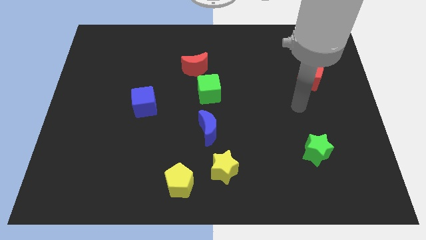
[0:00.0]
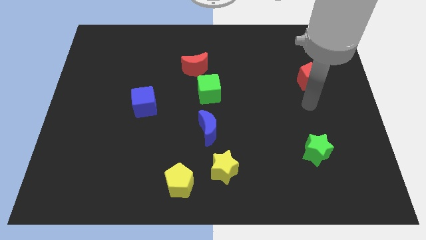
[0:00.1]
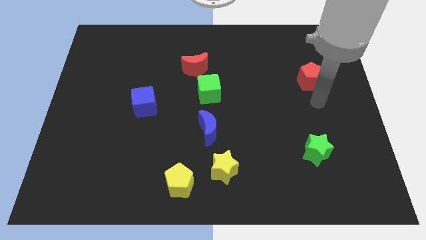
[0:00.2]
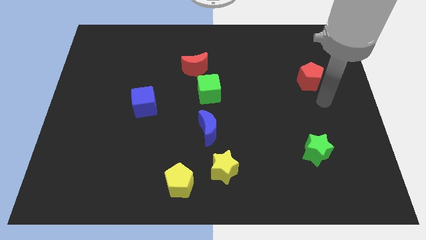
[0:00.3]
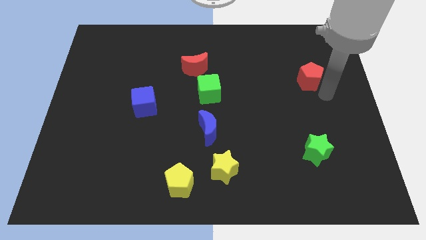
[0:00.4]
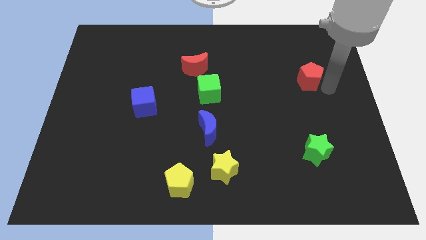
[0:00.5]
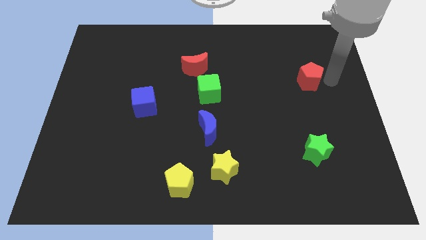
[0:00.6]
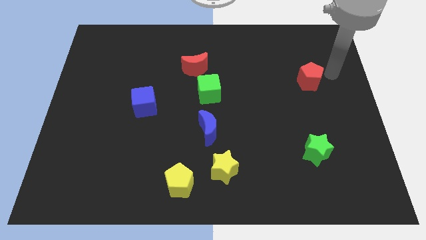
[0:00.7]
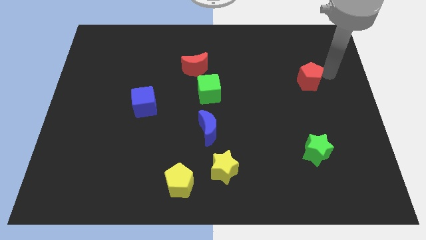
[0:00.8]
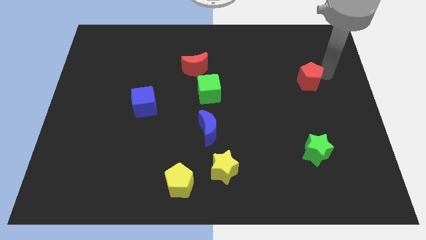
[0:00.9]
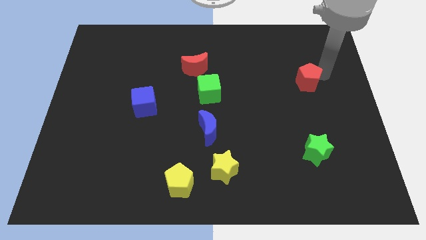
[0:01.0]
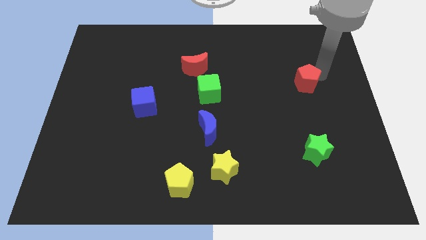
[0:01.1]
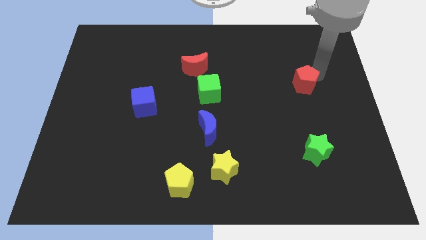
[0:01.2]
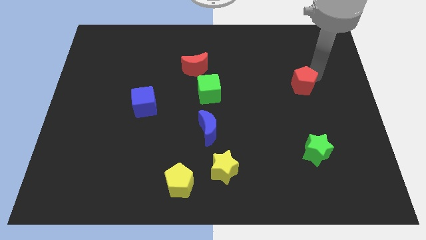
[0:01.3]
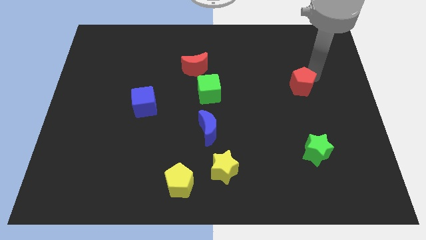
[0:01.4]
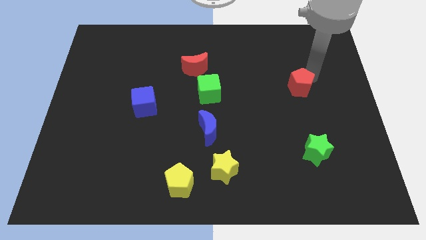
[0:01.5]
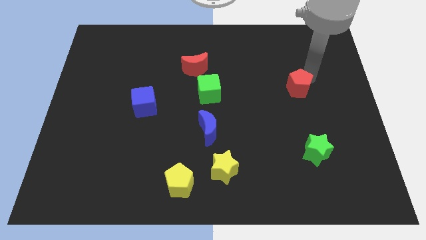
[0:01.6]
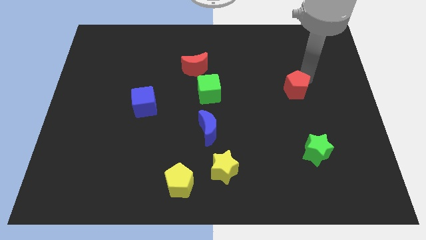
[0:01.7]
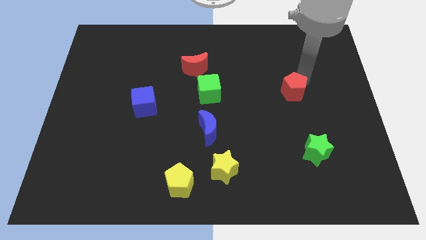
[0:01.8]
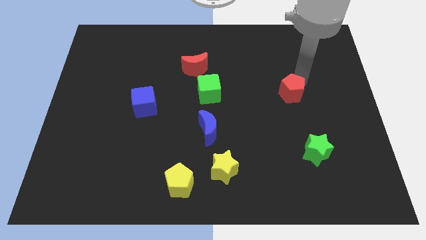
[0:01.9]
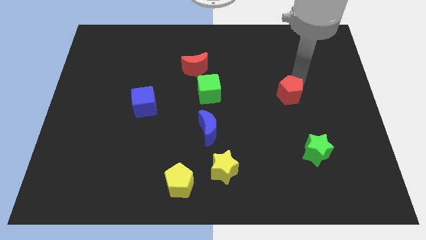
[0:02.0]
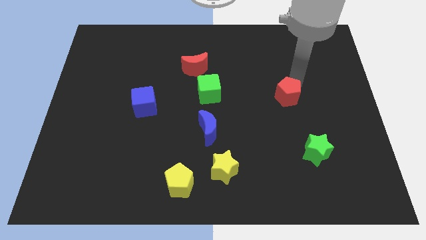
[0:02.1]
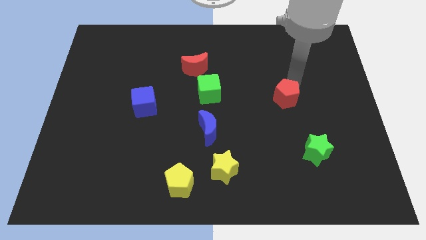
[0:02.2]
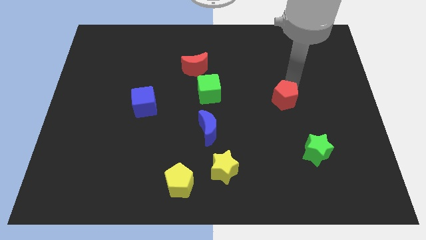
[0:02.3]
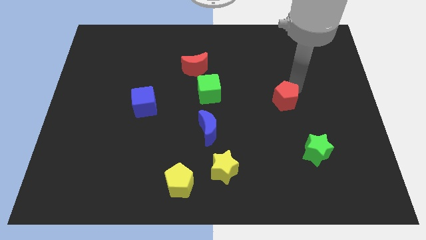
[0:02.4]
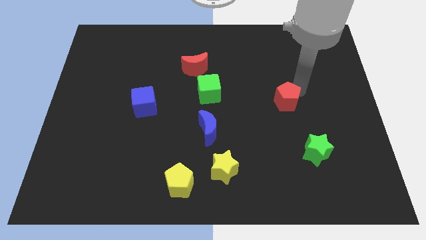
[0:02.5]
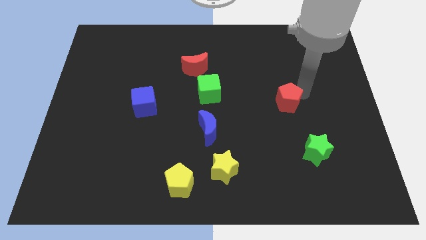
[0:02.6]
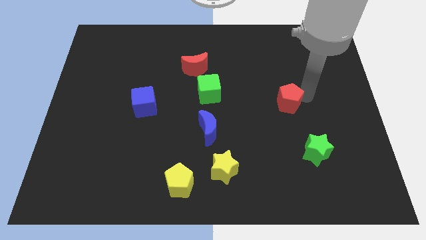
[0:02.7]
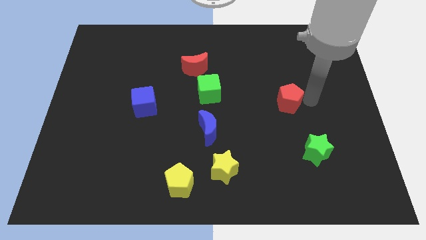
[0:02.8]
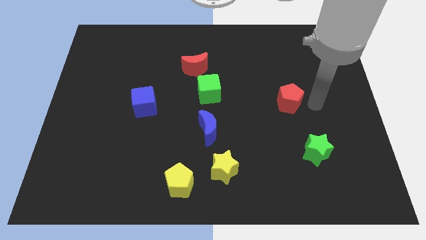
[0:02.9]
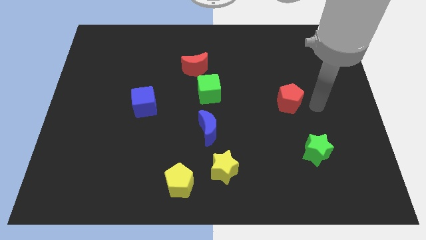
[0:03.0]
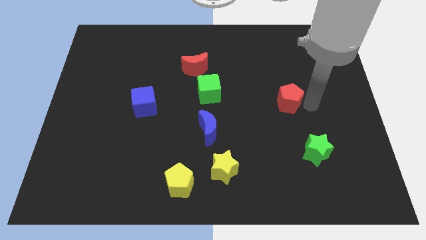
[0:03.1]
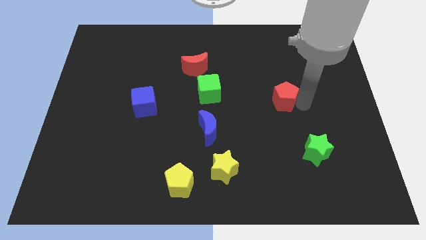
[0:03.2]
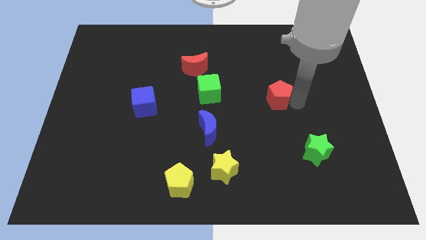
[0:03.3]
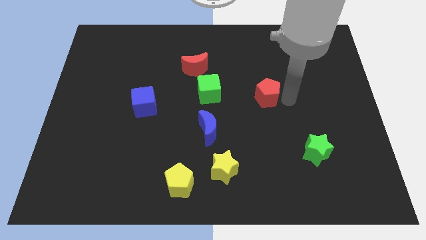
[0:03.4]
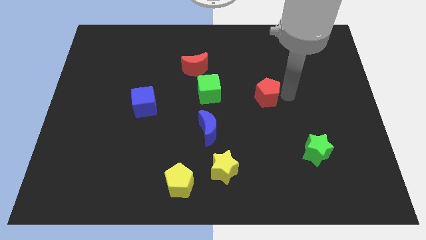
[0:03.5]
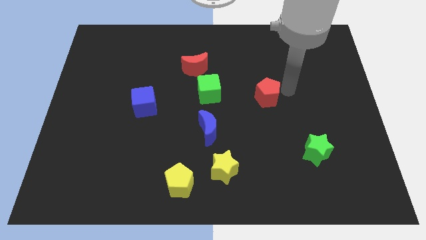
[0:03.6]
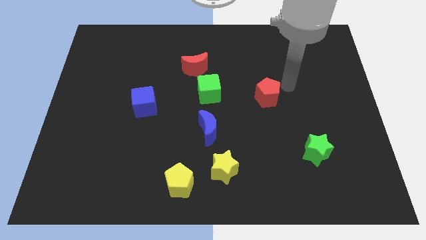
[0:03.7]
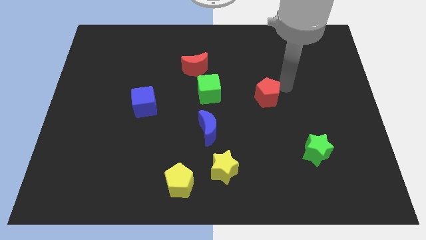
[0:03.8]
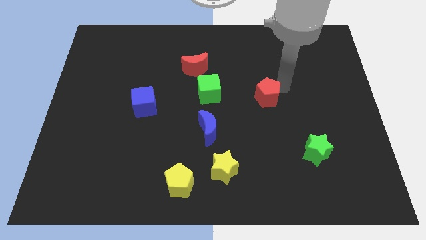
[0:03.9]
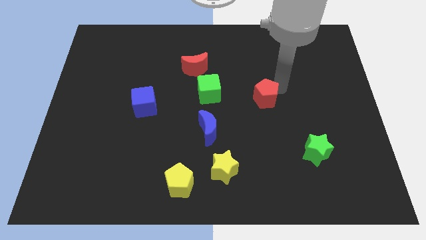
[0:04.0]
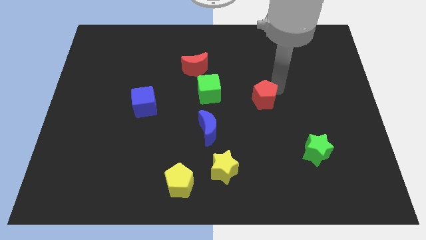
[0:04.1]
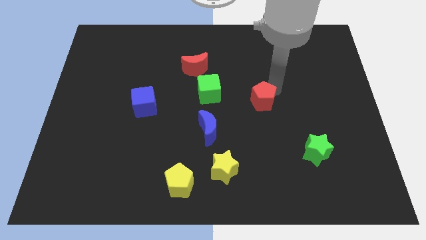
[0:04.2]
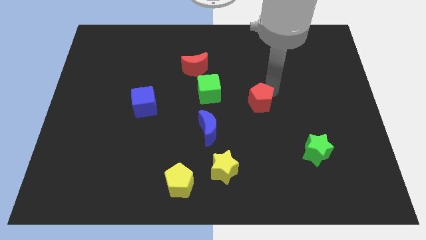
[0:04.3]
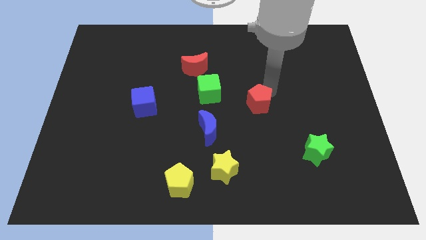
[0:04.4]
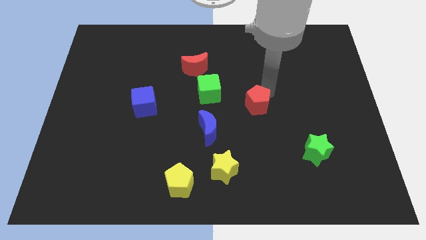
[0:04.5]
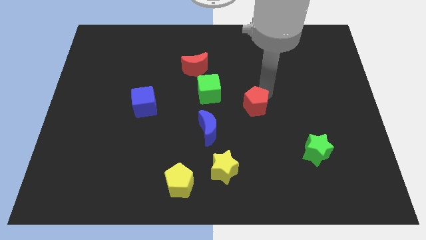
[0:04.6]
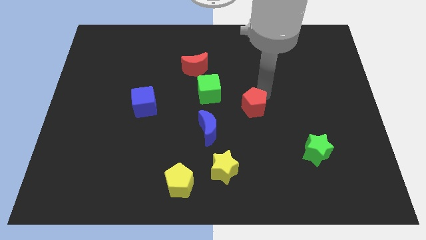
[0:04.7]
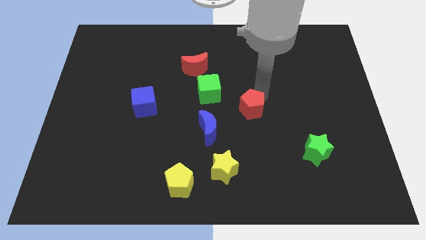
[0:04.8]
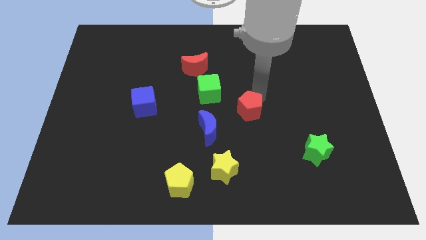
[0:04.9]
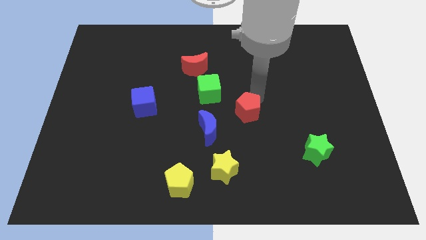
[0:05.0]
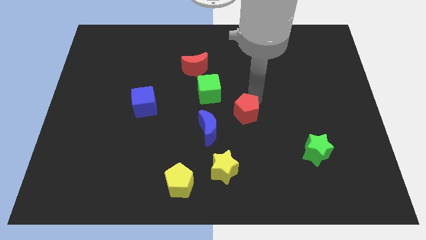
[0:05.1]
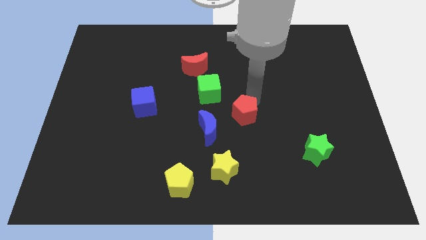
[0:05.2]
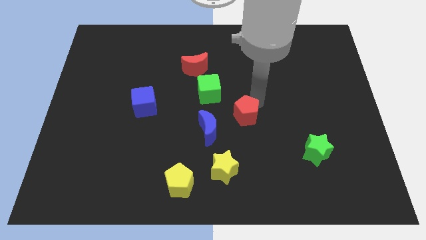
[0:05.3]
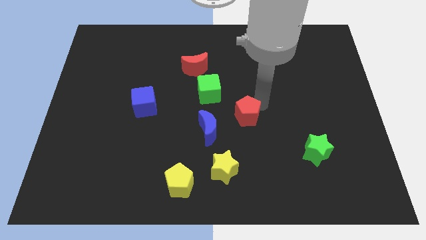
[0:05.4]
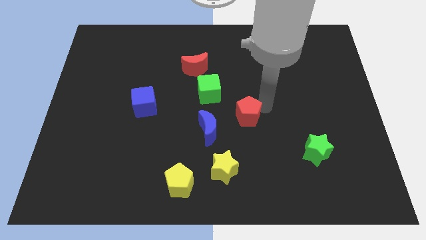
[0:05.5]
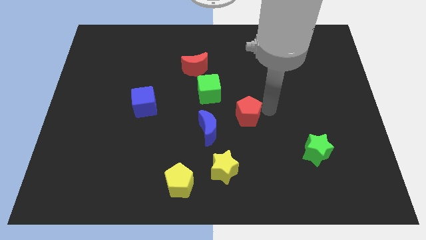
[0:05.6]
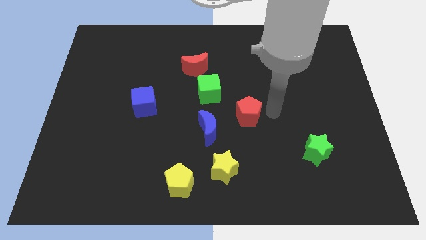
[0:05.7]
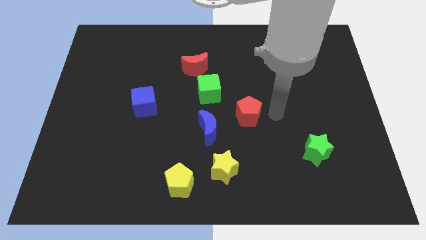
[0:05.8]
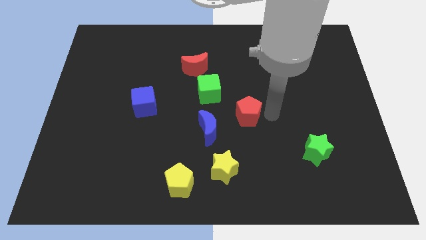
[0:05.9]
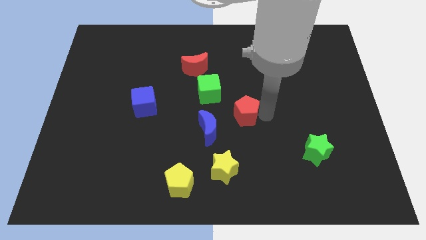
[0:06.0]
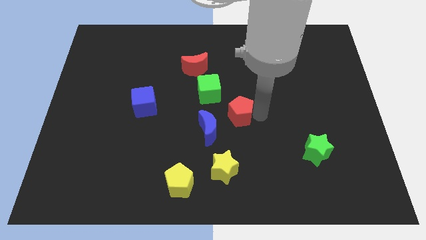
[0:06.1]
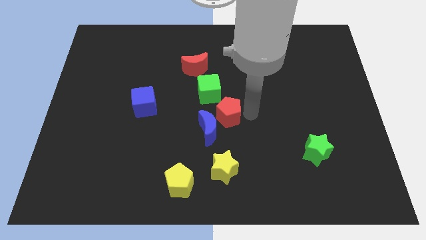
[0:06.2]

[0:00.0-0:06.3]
put the red pentagon towards the blue moon

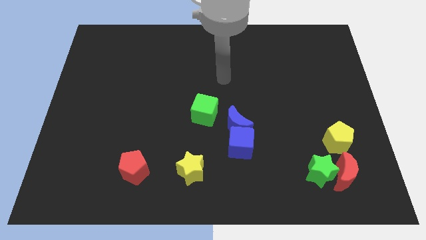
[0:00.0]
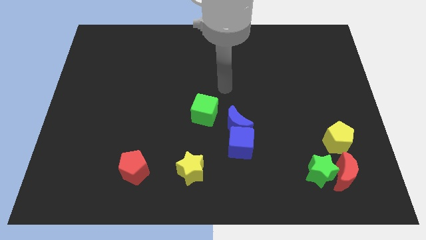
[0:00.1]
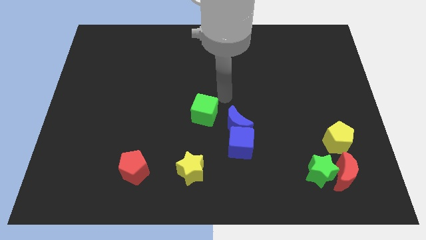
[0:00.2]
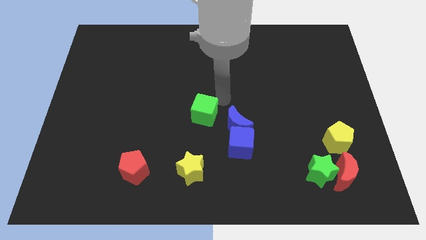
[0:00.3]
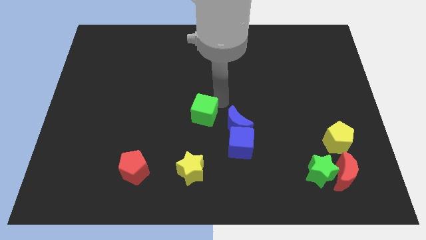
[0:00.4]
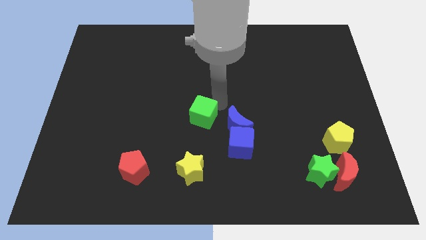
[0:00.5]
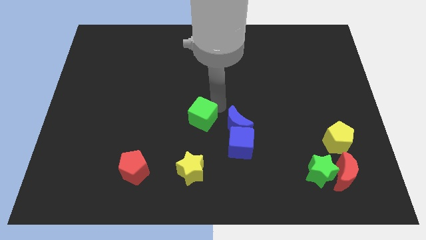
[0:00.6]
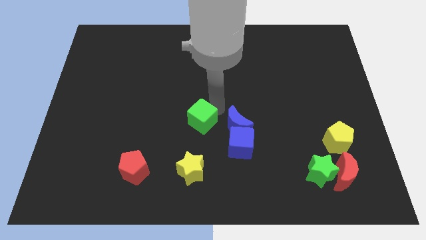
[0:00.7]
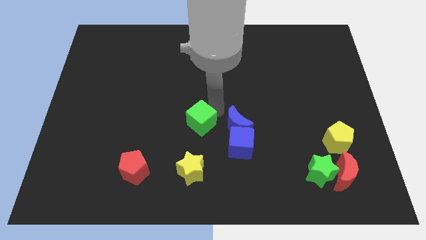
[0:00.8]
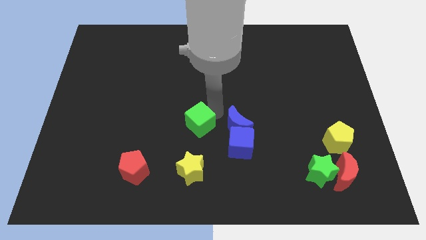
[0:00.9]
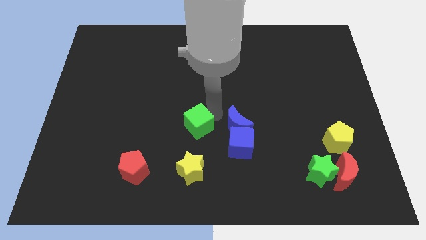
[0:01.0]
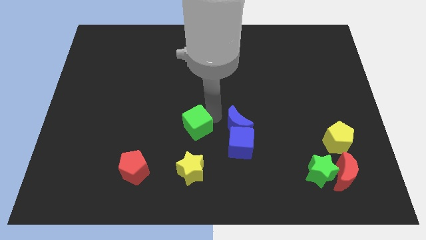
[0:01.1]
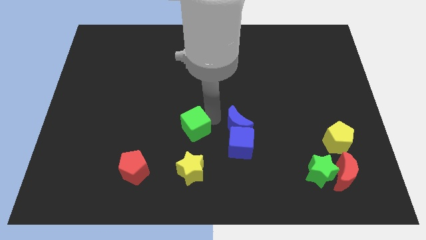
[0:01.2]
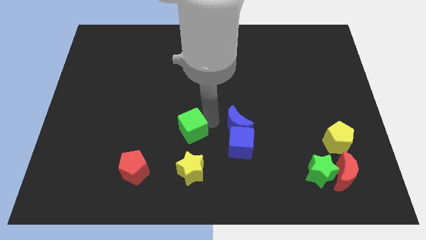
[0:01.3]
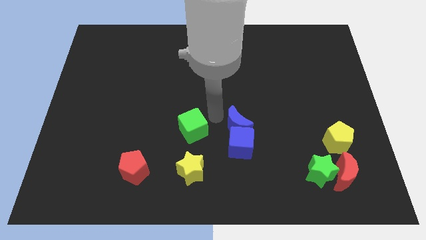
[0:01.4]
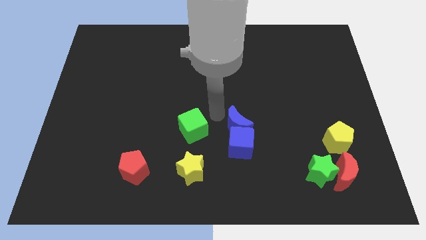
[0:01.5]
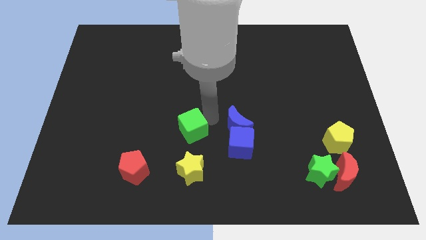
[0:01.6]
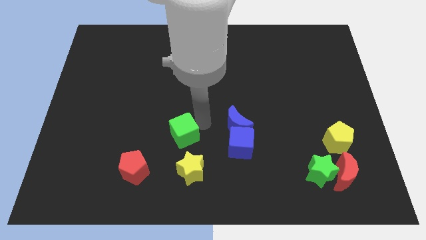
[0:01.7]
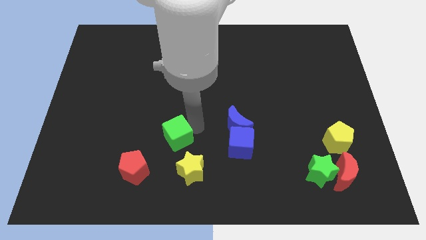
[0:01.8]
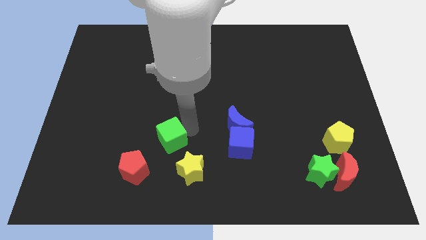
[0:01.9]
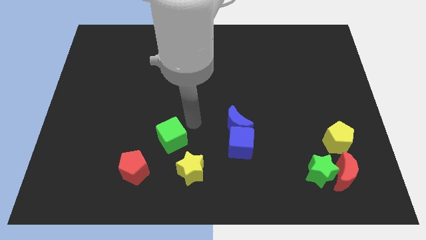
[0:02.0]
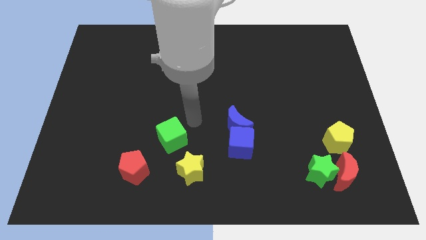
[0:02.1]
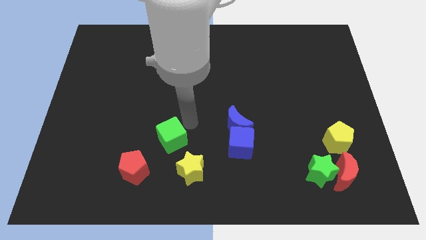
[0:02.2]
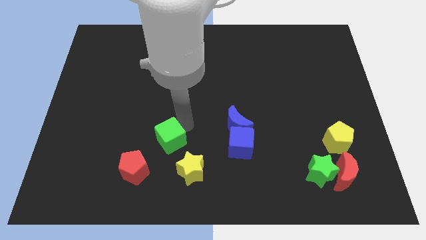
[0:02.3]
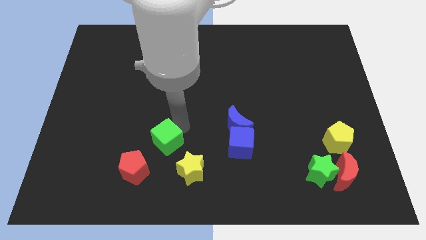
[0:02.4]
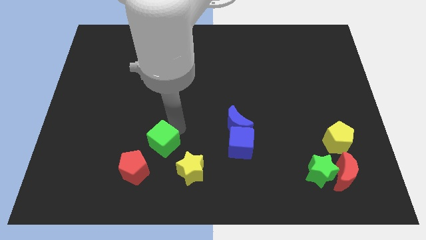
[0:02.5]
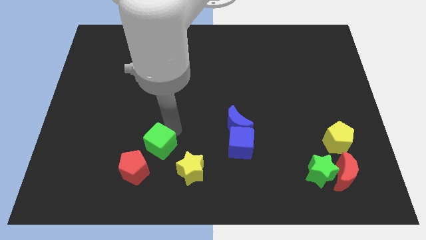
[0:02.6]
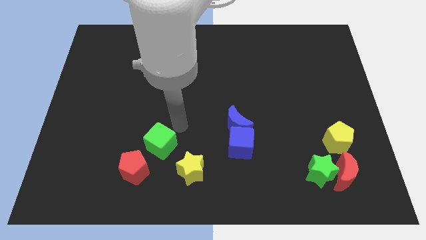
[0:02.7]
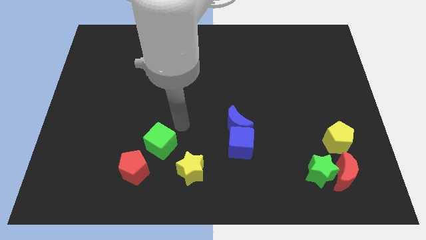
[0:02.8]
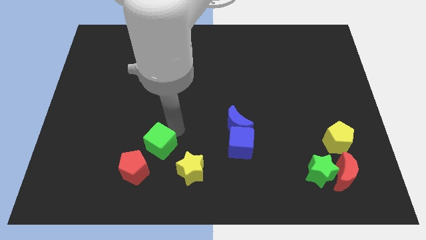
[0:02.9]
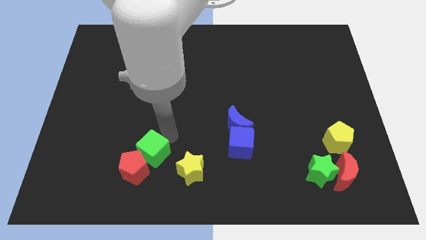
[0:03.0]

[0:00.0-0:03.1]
push the green cube to the red pentagon
